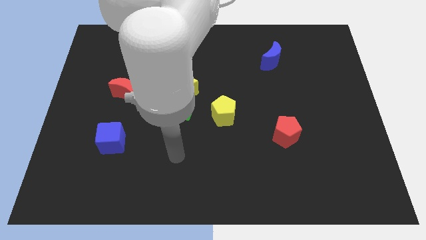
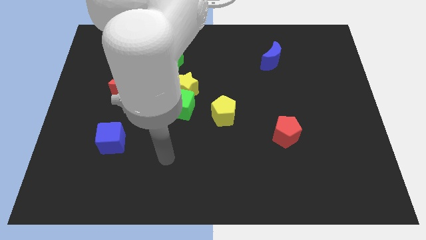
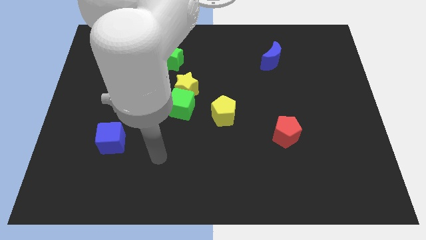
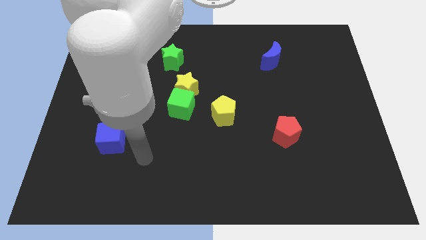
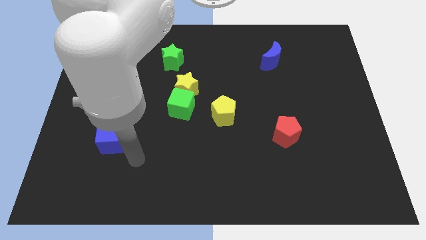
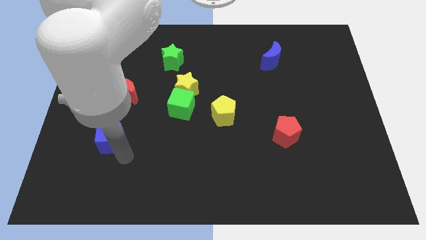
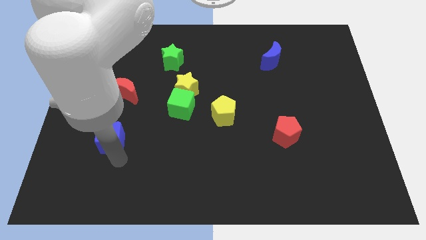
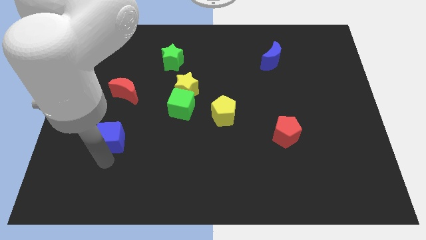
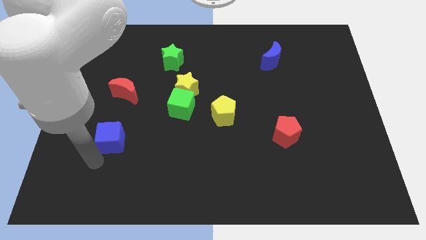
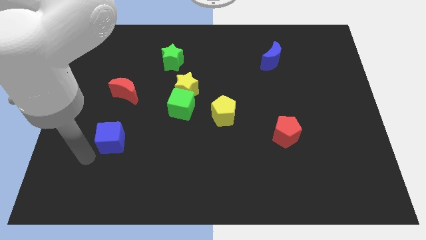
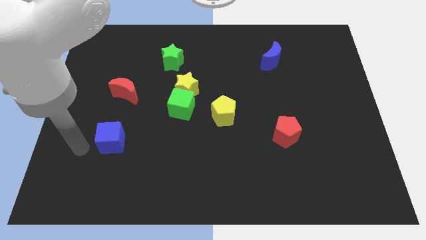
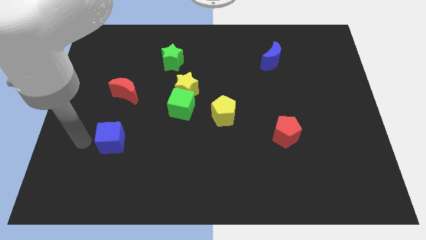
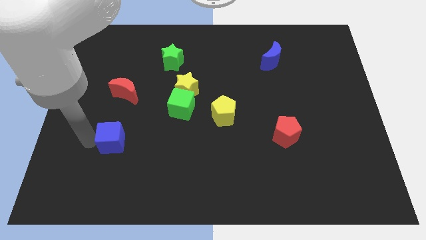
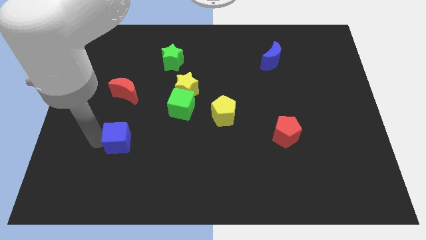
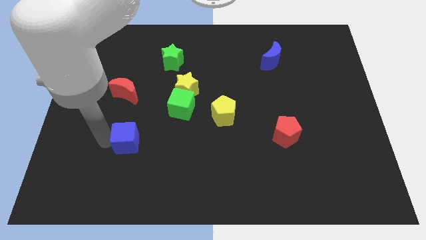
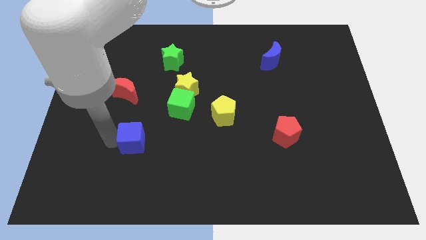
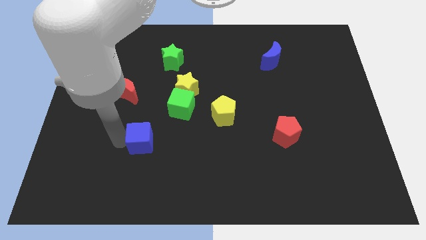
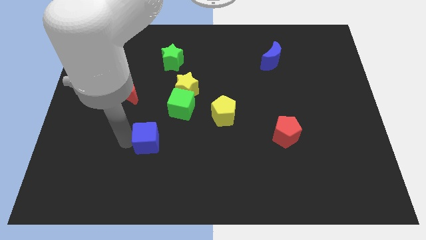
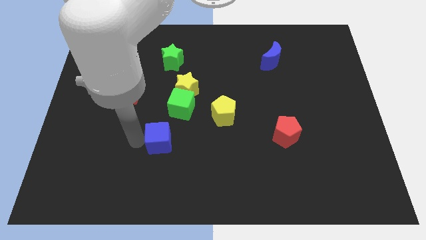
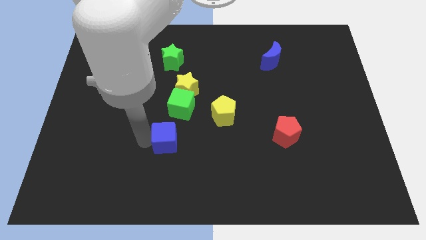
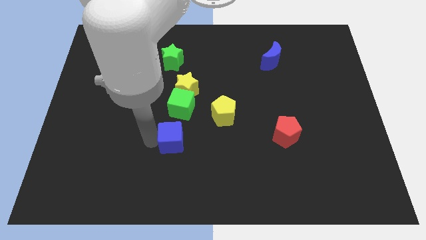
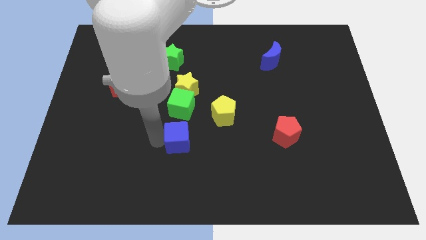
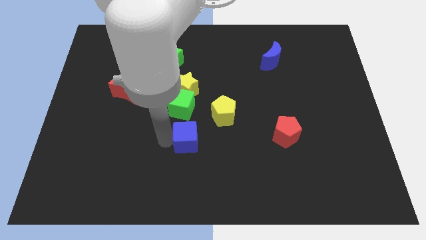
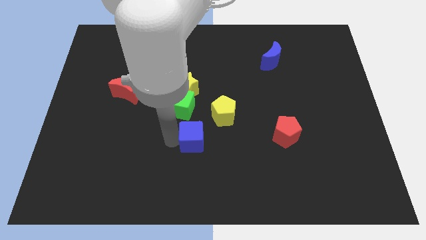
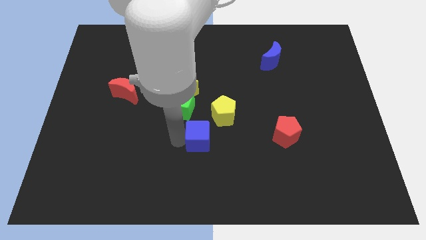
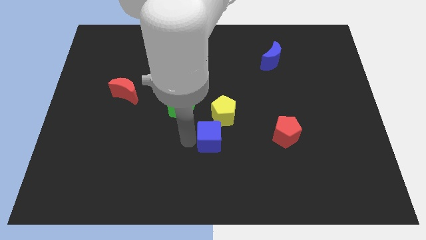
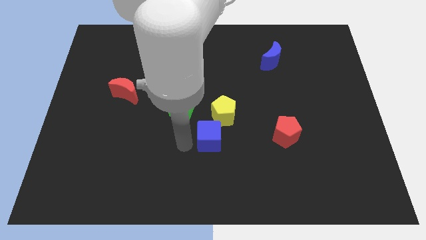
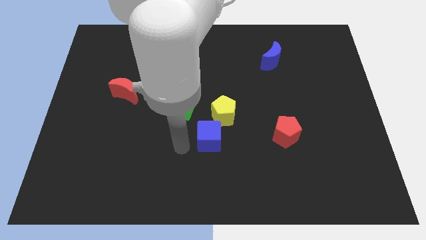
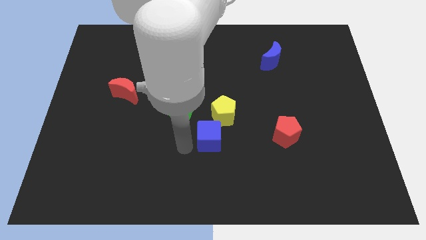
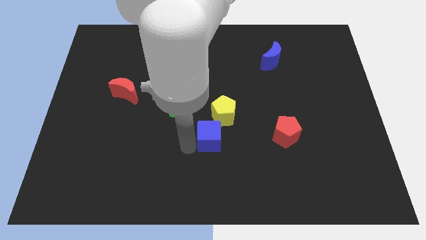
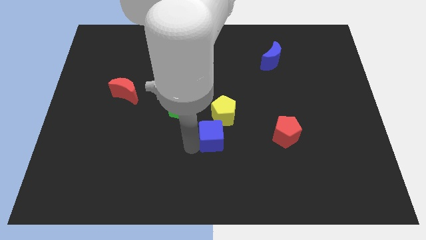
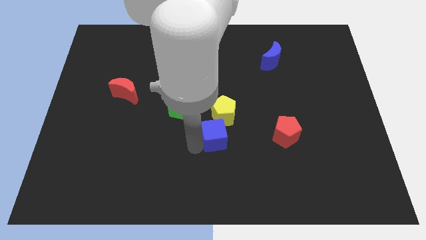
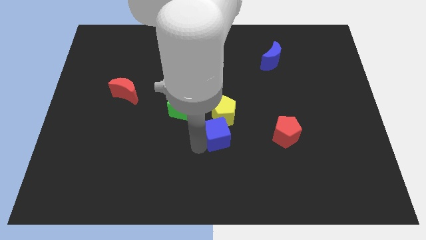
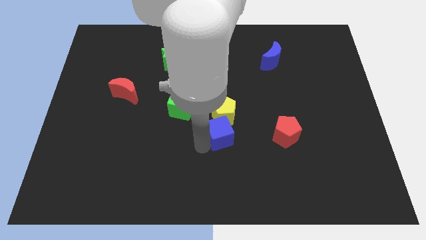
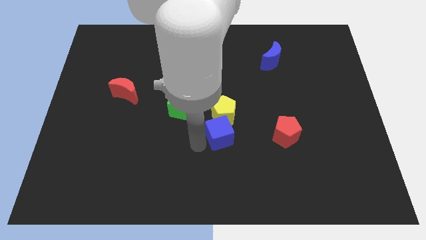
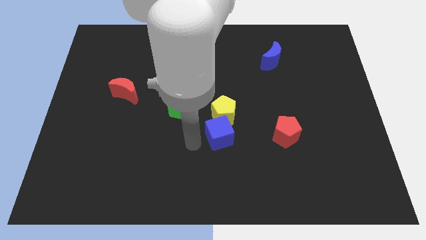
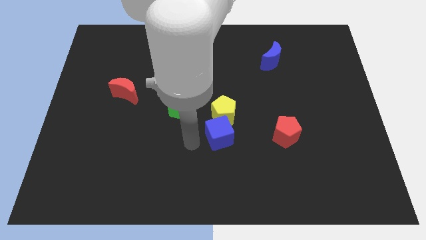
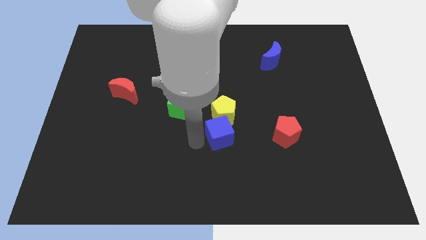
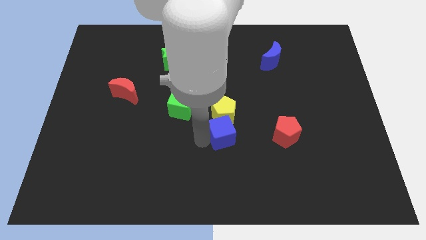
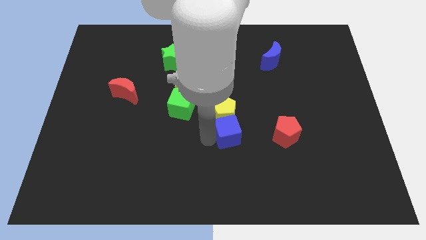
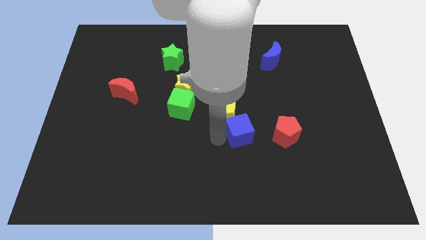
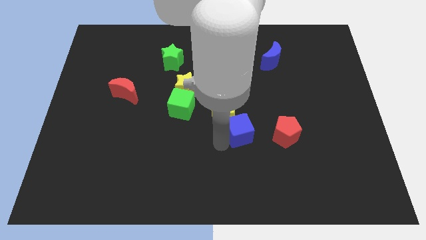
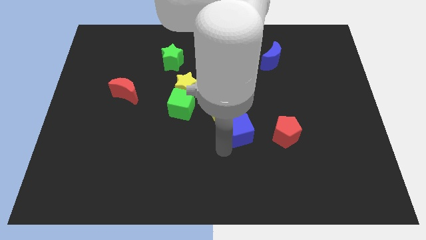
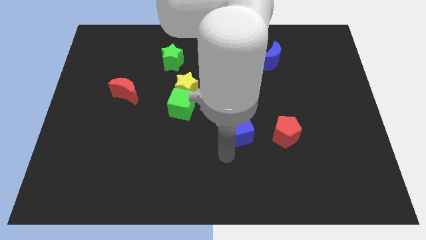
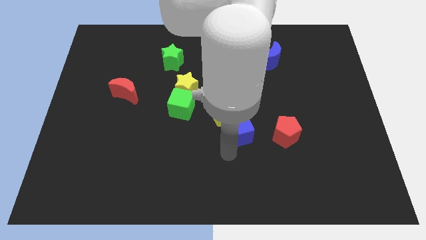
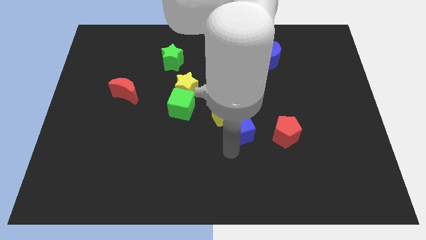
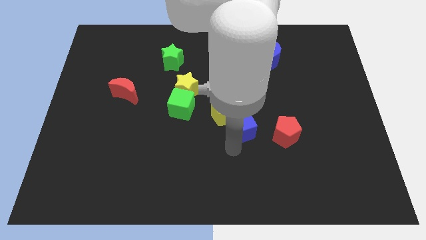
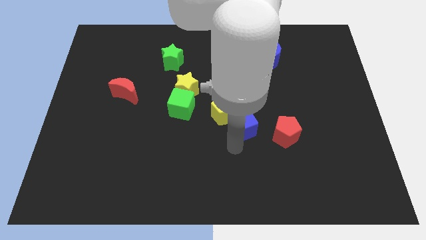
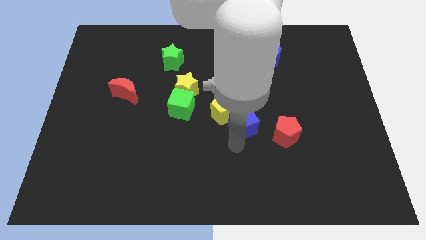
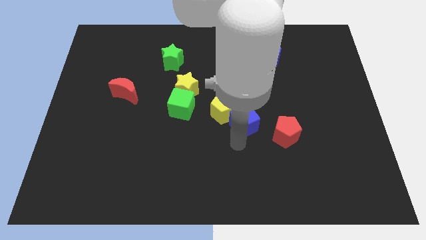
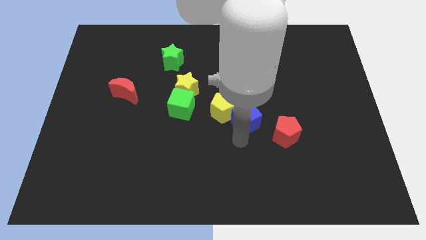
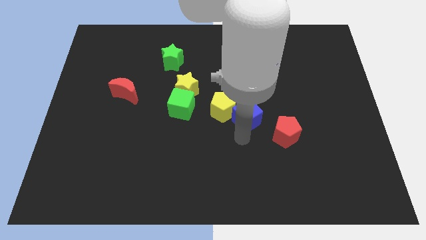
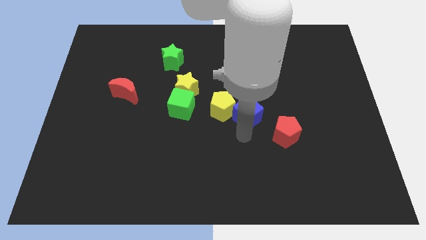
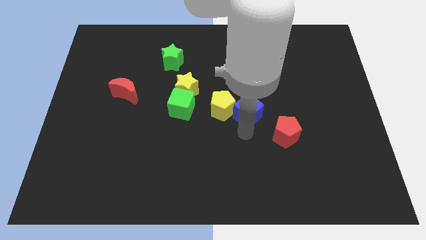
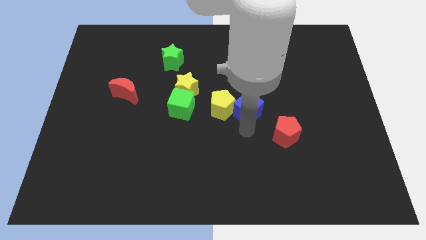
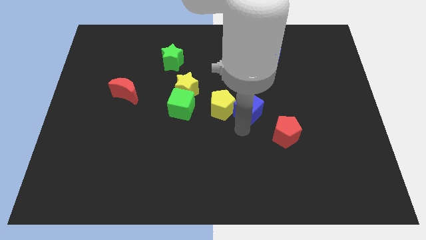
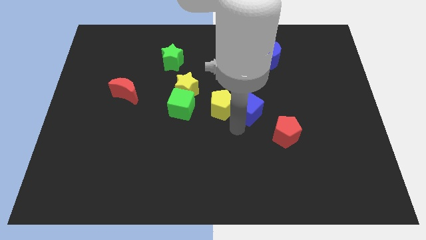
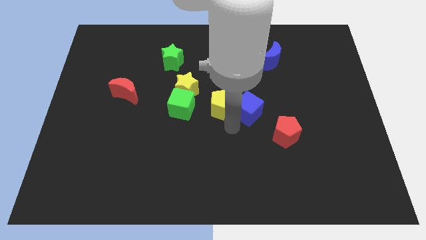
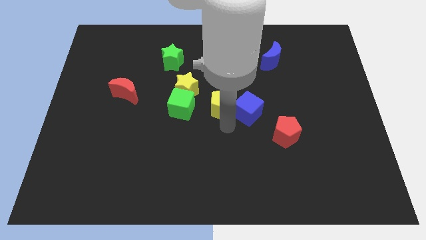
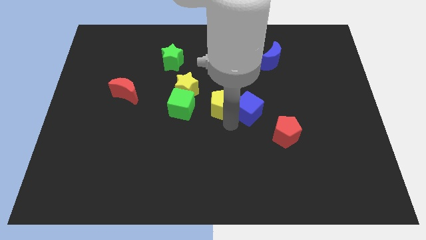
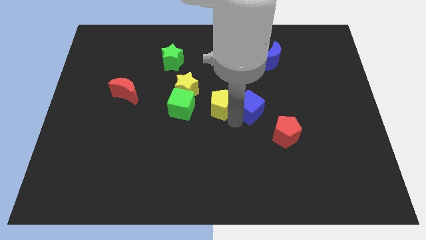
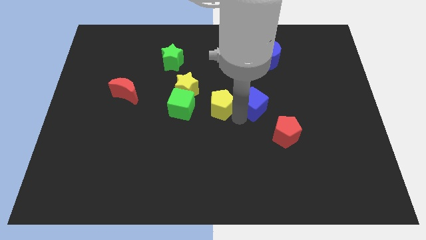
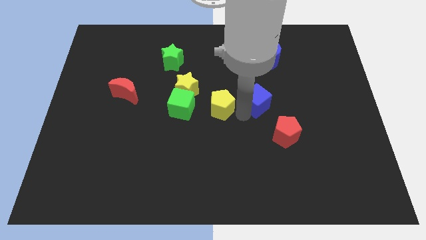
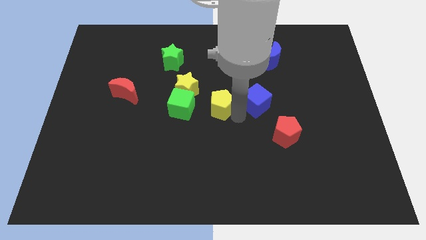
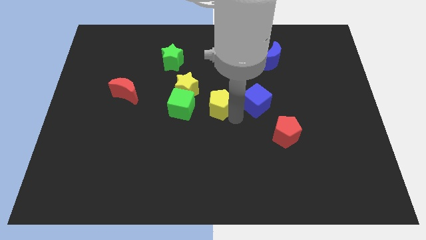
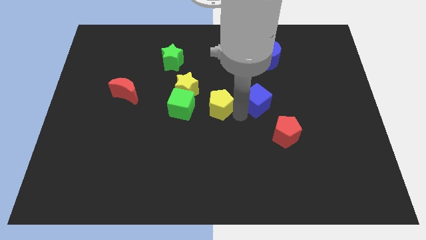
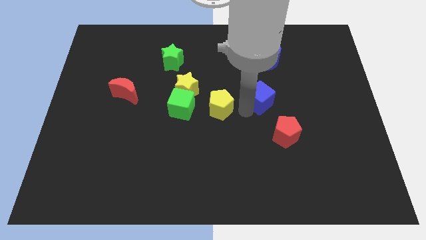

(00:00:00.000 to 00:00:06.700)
push the blue cube to the bottom side of the blue moon
